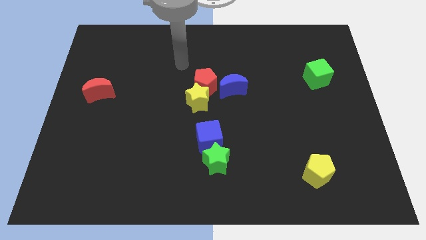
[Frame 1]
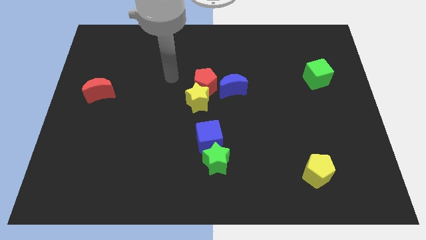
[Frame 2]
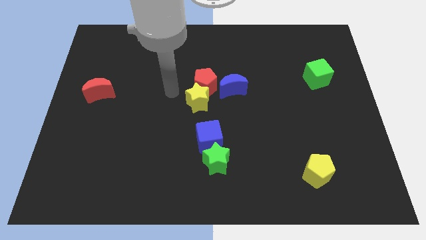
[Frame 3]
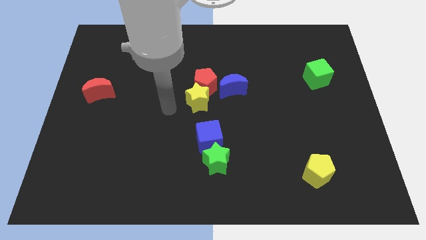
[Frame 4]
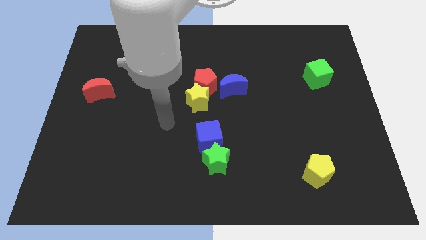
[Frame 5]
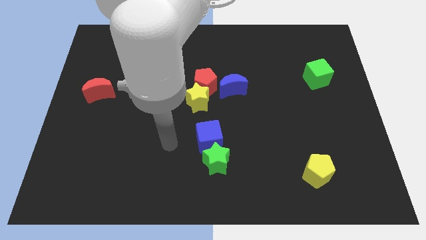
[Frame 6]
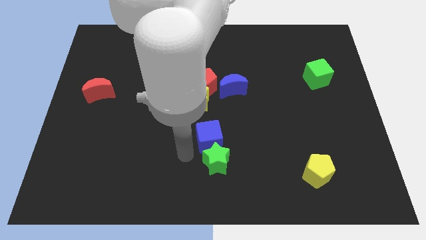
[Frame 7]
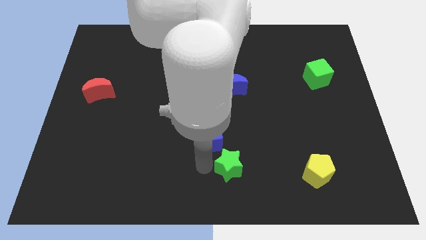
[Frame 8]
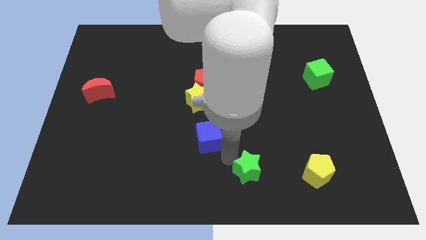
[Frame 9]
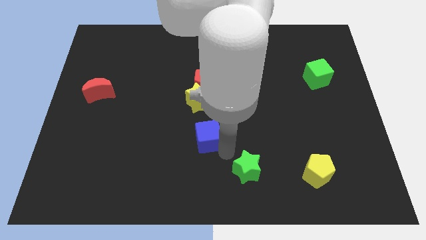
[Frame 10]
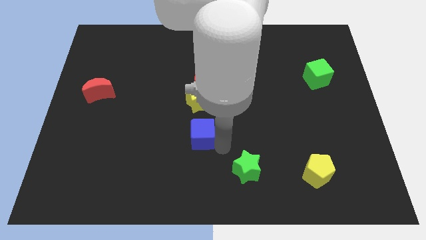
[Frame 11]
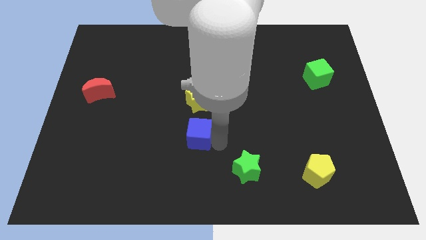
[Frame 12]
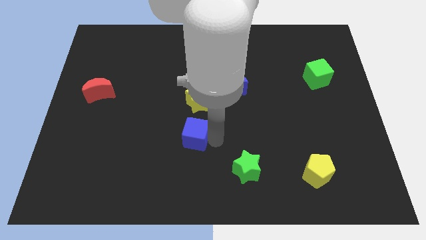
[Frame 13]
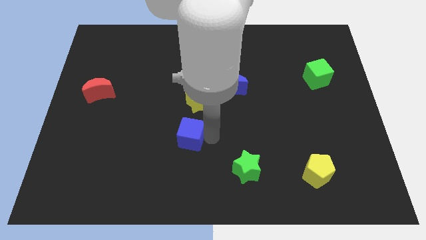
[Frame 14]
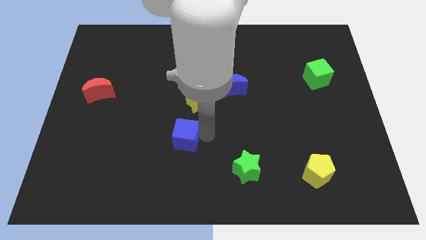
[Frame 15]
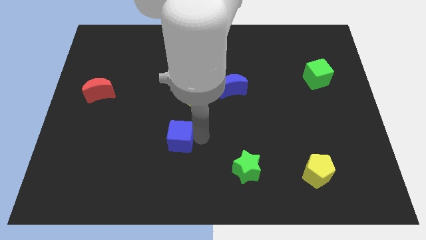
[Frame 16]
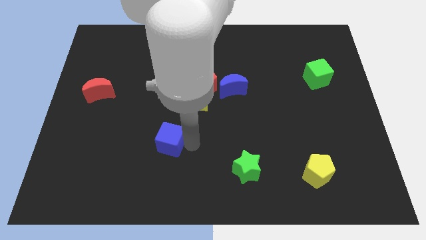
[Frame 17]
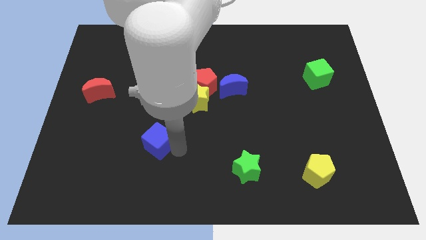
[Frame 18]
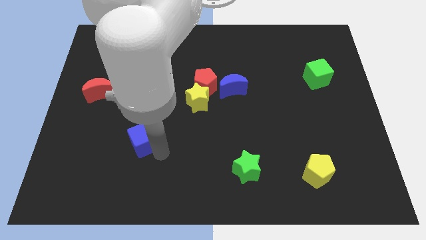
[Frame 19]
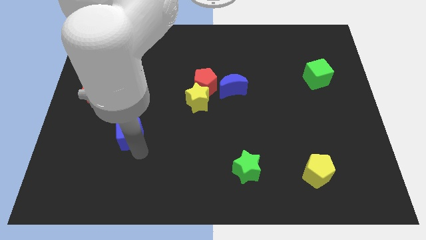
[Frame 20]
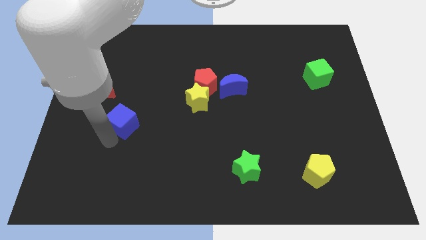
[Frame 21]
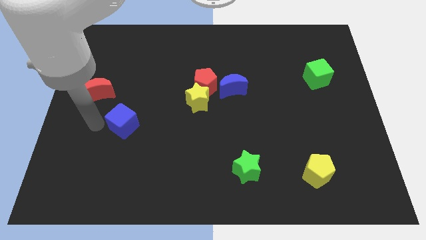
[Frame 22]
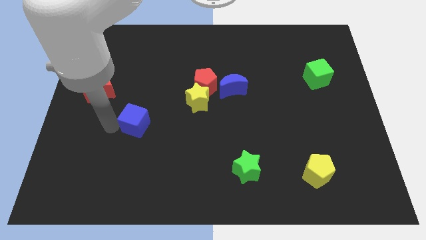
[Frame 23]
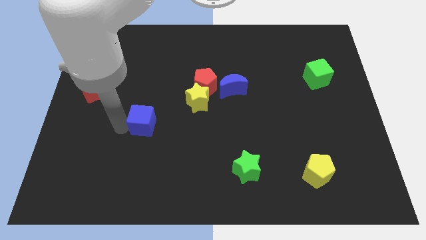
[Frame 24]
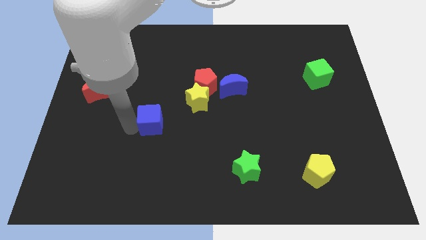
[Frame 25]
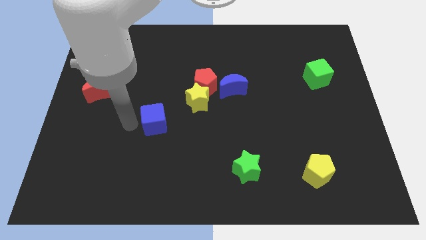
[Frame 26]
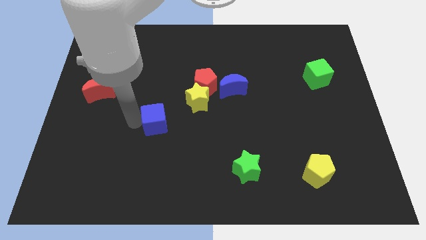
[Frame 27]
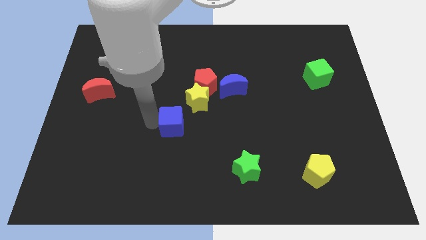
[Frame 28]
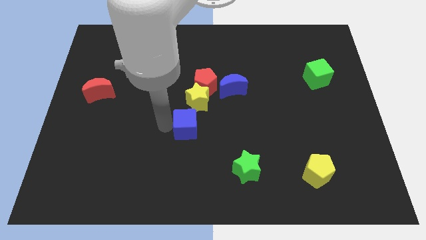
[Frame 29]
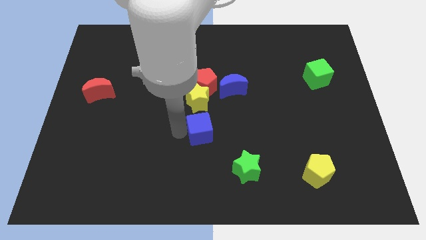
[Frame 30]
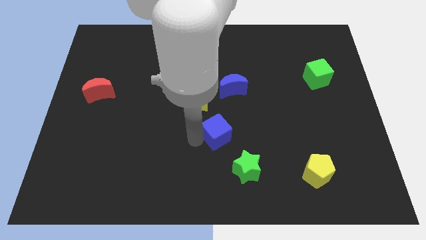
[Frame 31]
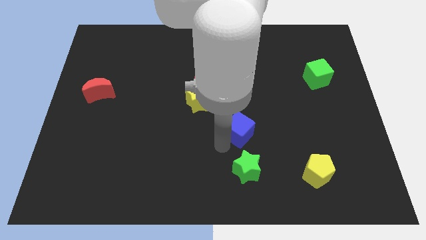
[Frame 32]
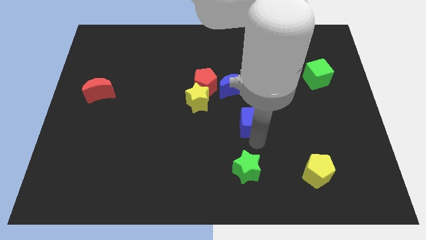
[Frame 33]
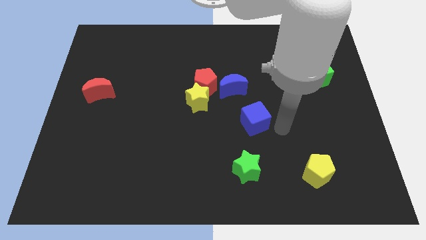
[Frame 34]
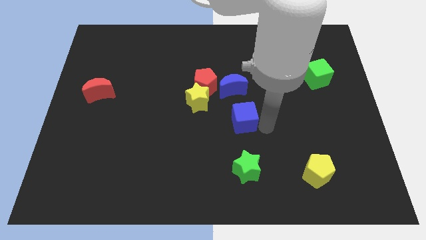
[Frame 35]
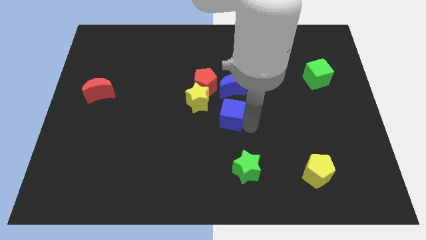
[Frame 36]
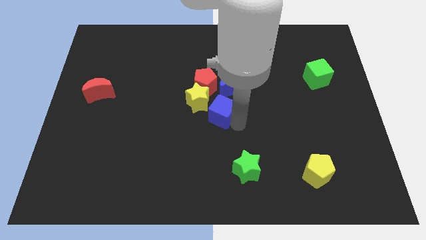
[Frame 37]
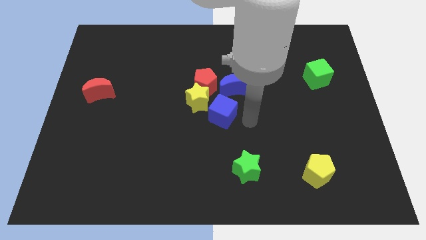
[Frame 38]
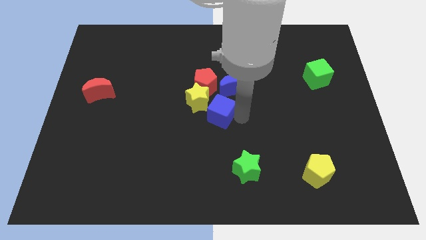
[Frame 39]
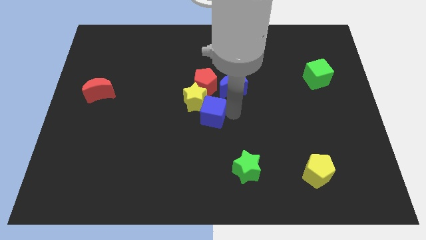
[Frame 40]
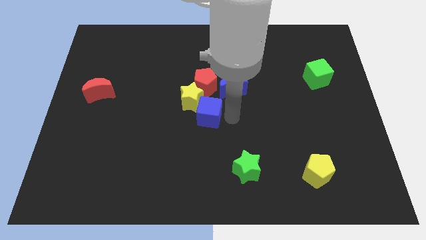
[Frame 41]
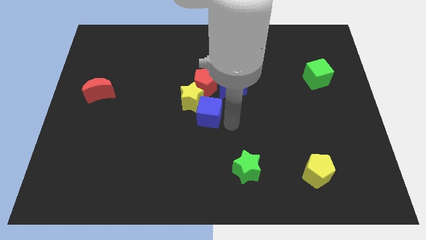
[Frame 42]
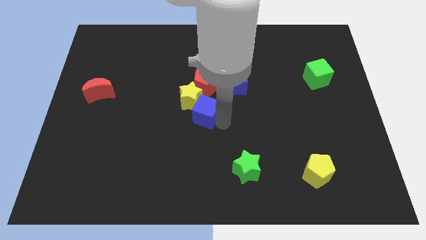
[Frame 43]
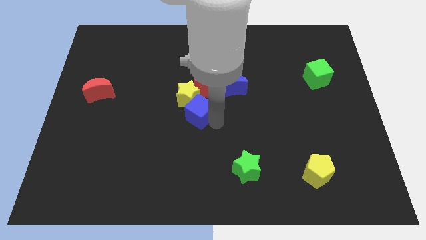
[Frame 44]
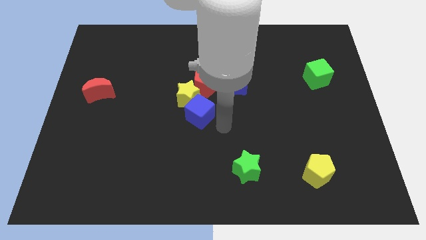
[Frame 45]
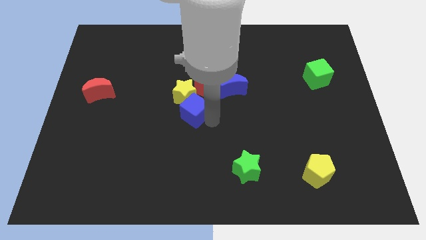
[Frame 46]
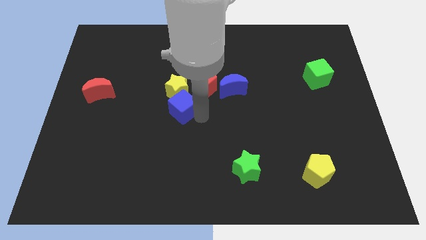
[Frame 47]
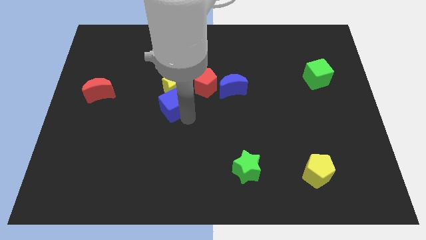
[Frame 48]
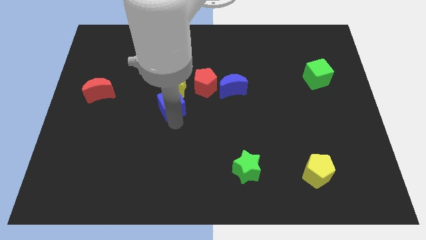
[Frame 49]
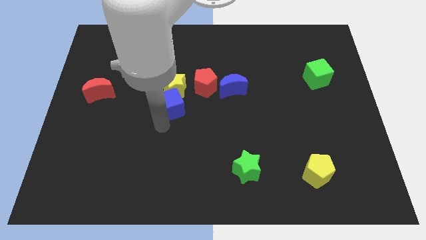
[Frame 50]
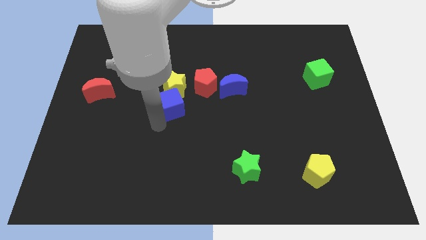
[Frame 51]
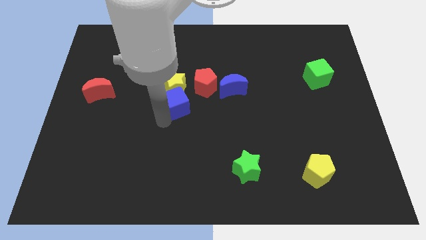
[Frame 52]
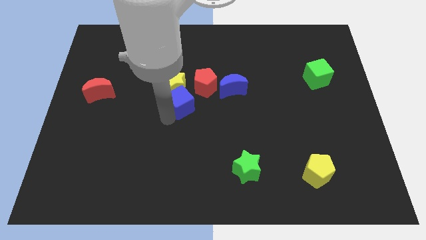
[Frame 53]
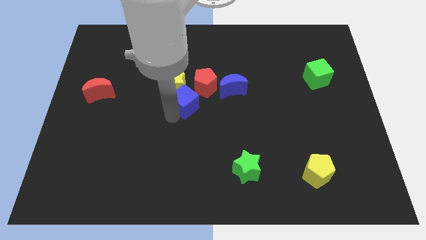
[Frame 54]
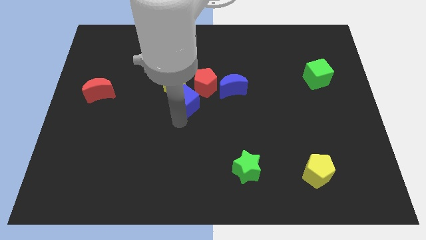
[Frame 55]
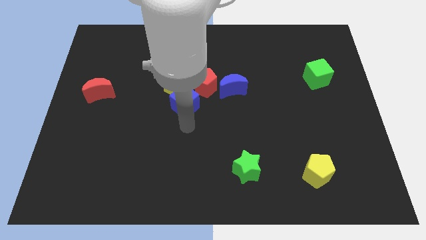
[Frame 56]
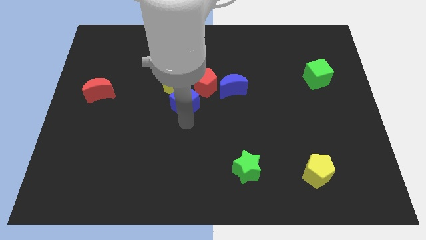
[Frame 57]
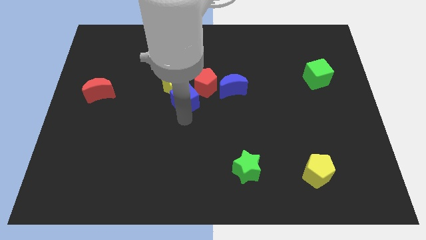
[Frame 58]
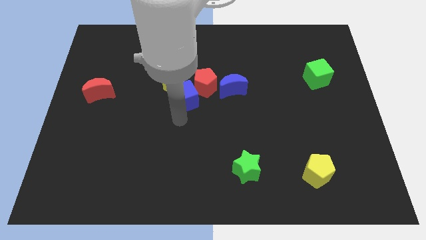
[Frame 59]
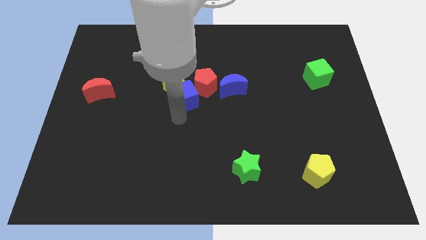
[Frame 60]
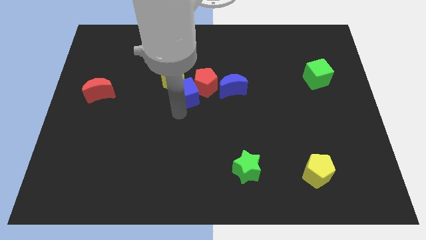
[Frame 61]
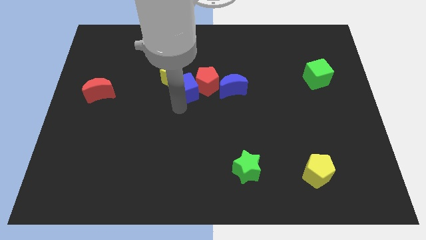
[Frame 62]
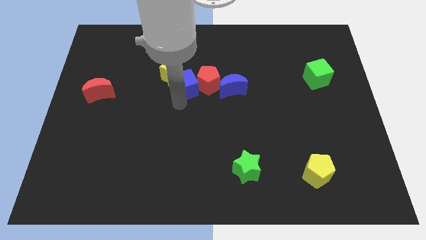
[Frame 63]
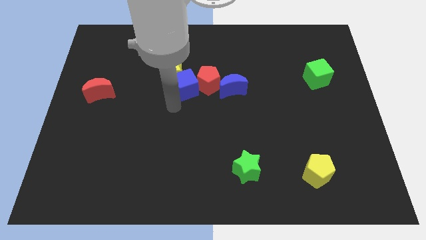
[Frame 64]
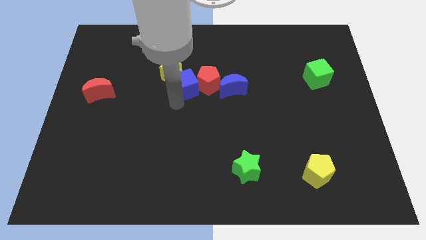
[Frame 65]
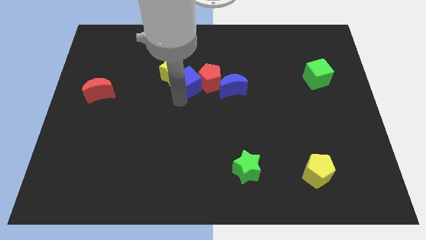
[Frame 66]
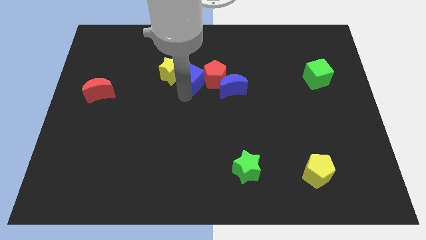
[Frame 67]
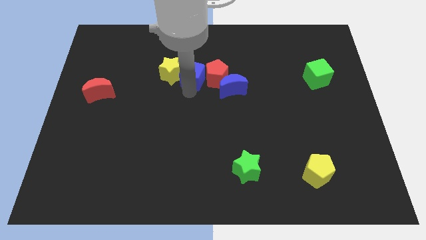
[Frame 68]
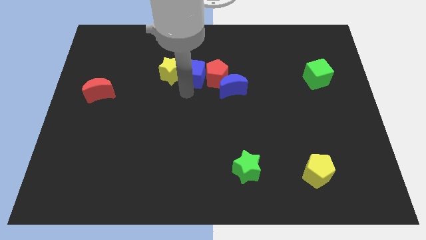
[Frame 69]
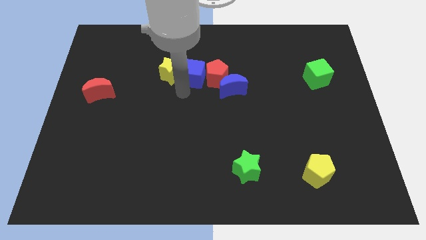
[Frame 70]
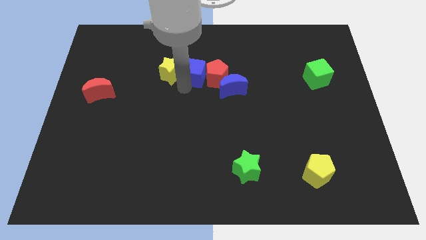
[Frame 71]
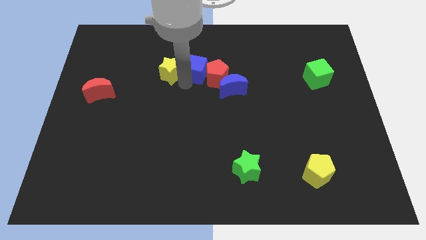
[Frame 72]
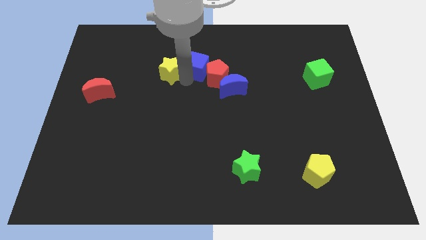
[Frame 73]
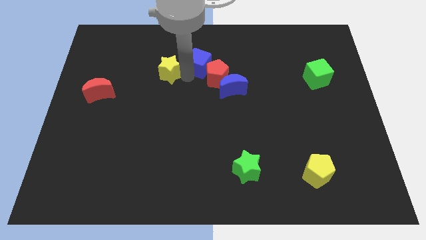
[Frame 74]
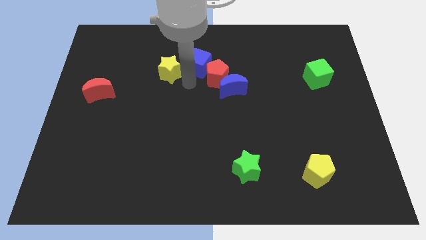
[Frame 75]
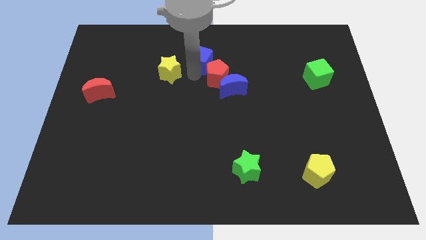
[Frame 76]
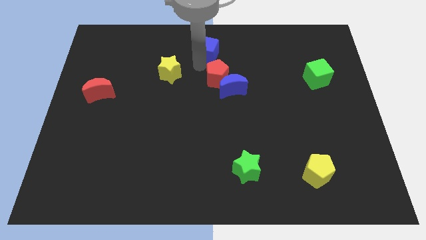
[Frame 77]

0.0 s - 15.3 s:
move the blue cube to the top
